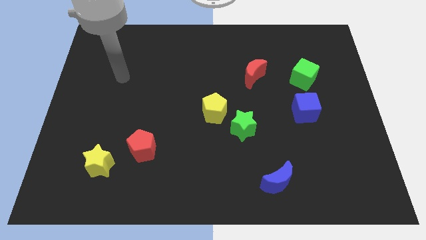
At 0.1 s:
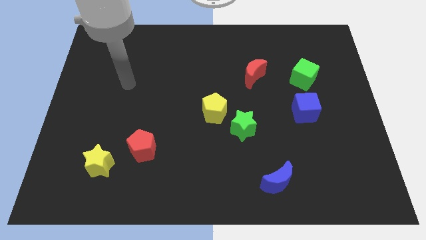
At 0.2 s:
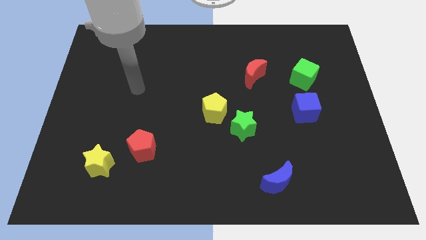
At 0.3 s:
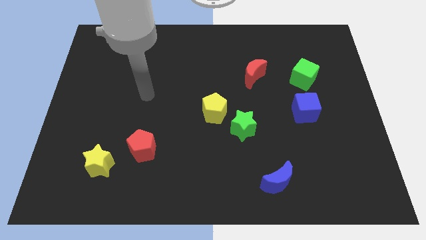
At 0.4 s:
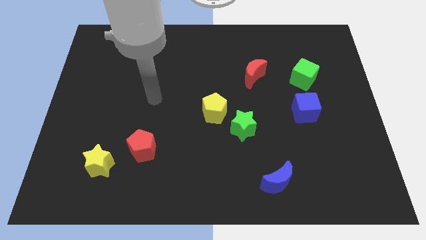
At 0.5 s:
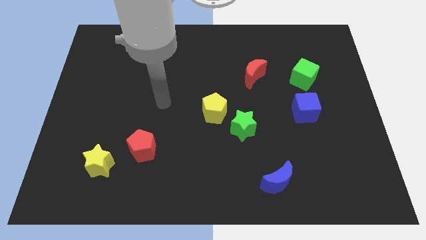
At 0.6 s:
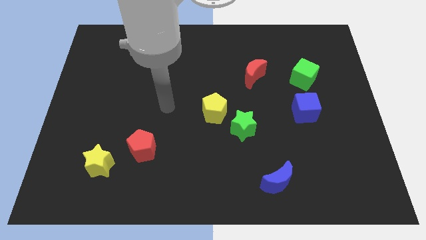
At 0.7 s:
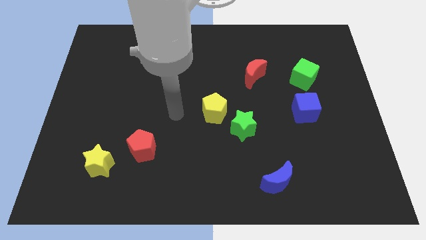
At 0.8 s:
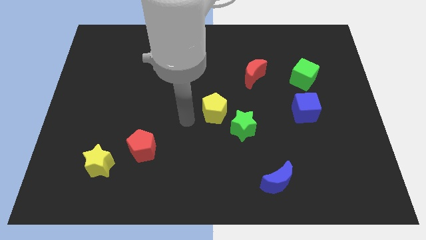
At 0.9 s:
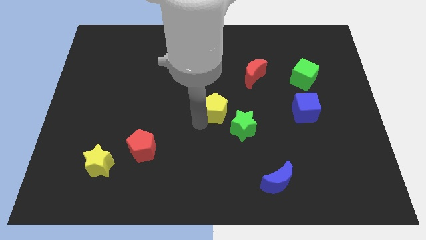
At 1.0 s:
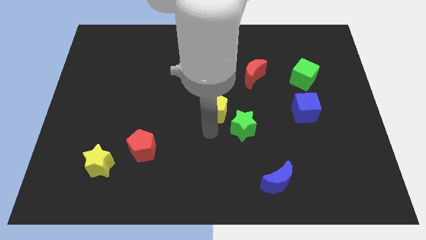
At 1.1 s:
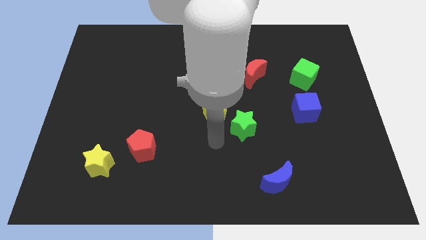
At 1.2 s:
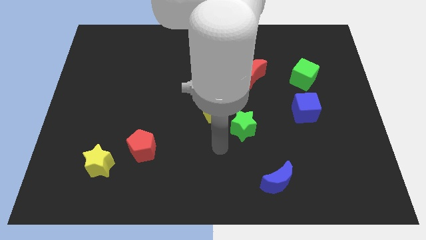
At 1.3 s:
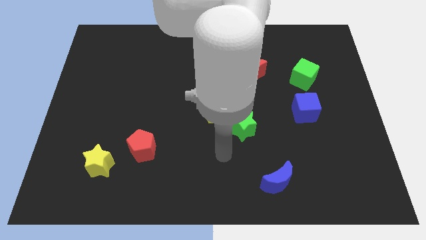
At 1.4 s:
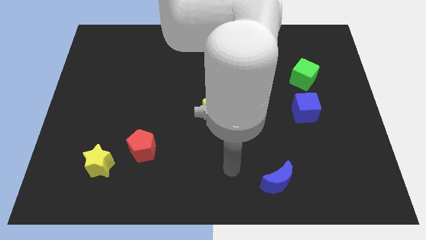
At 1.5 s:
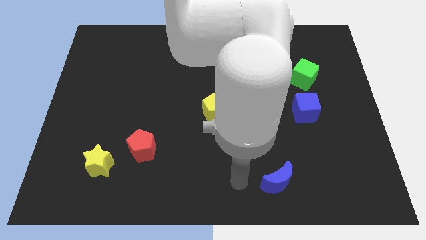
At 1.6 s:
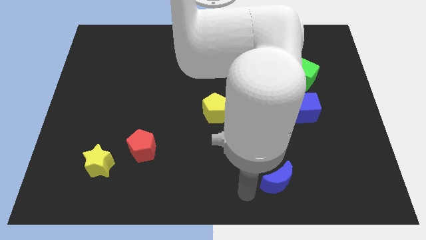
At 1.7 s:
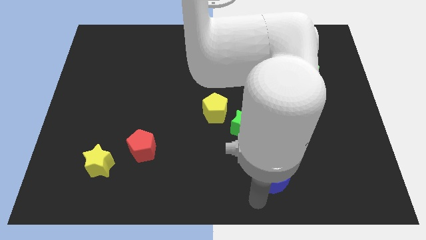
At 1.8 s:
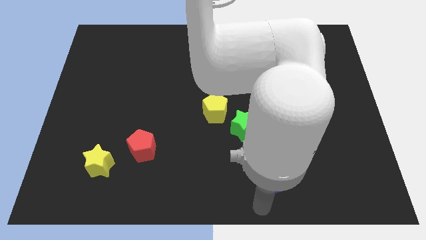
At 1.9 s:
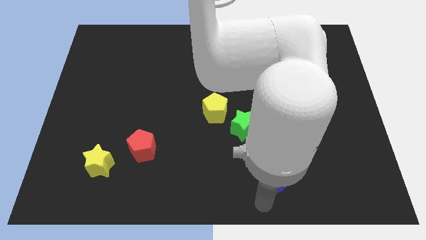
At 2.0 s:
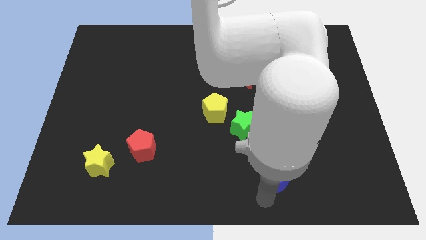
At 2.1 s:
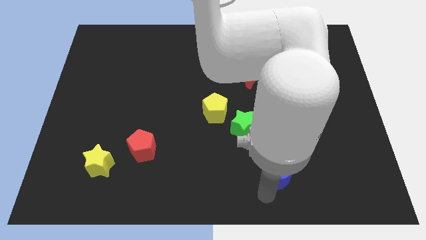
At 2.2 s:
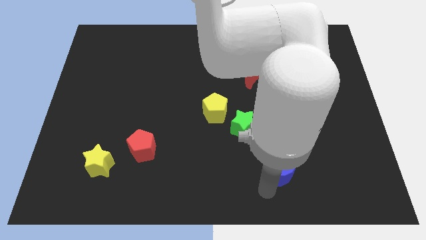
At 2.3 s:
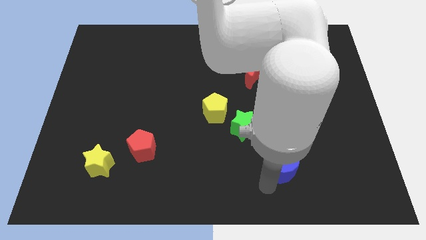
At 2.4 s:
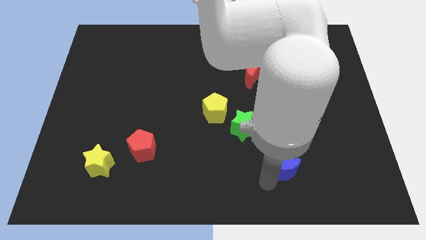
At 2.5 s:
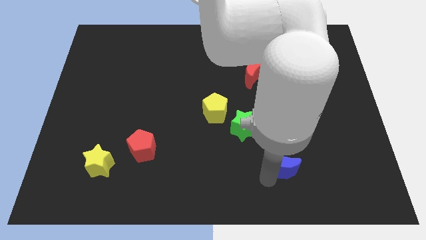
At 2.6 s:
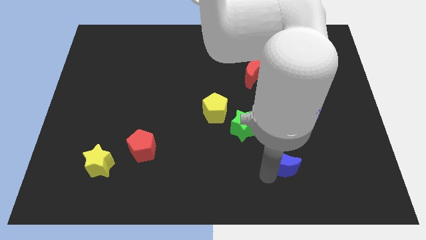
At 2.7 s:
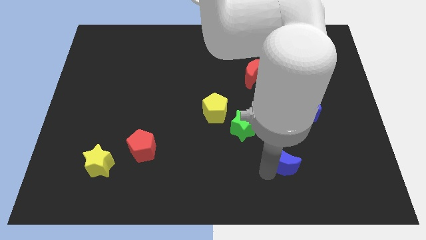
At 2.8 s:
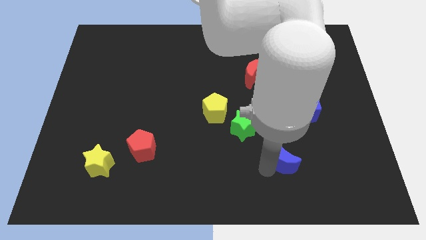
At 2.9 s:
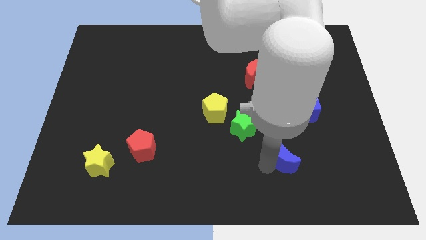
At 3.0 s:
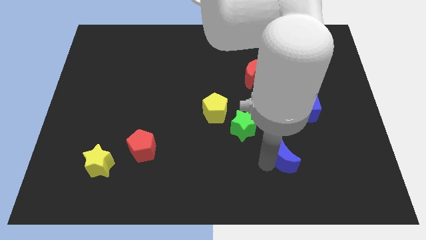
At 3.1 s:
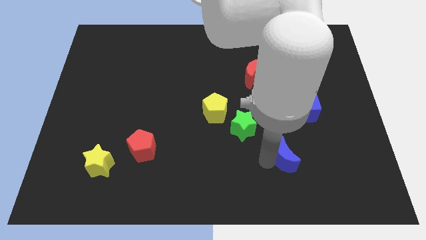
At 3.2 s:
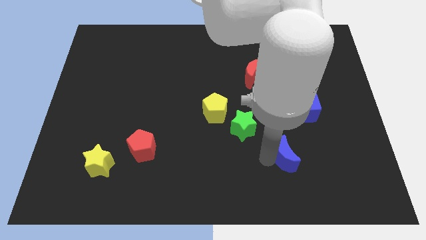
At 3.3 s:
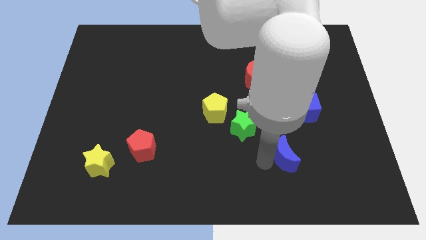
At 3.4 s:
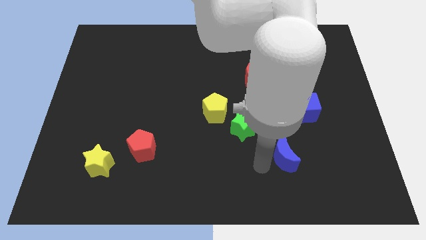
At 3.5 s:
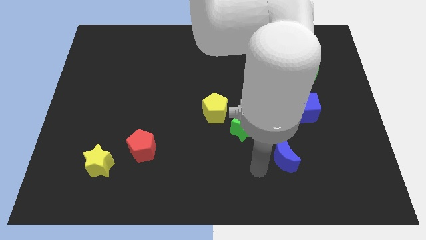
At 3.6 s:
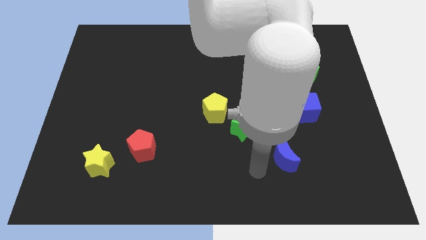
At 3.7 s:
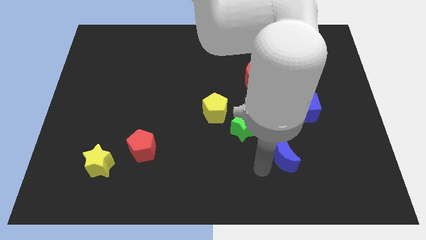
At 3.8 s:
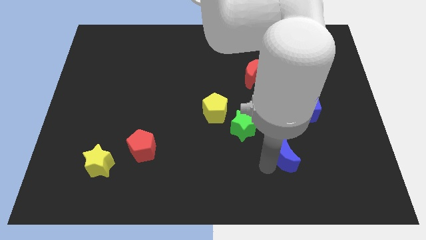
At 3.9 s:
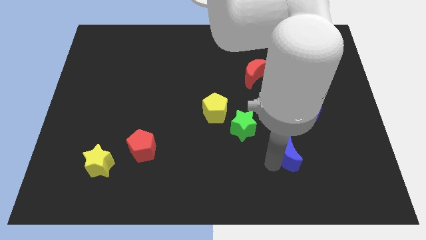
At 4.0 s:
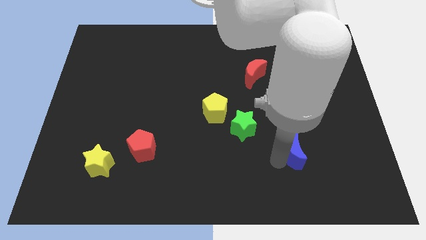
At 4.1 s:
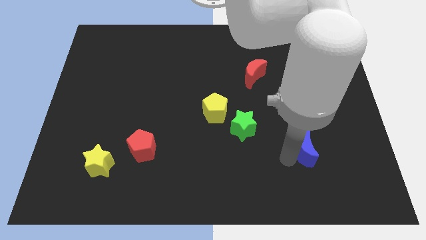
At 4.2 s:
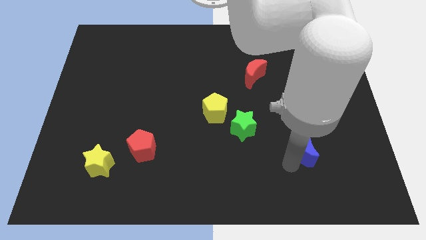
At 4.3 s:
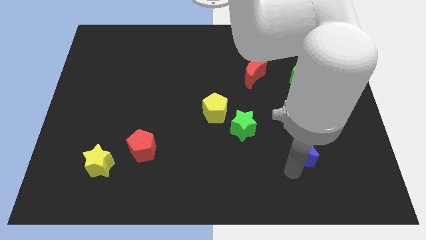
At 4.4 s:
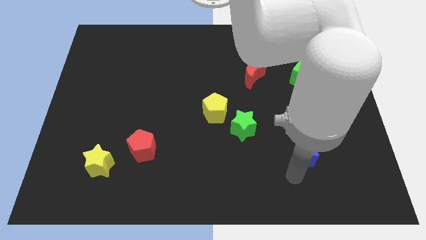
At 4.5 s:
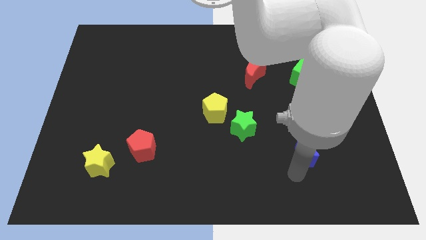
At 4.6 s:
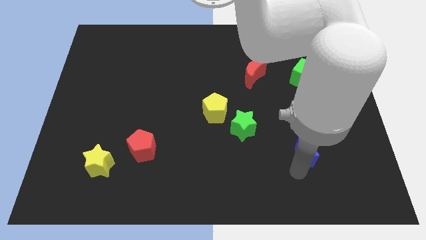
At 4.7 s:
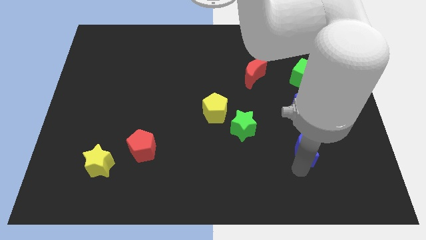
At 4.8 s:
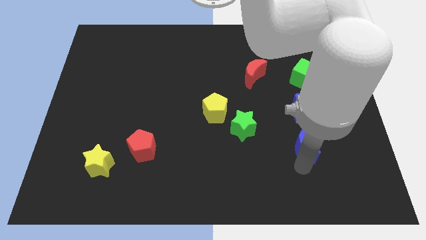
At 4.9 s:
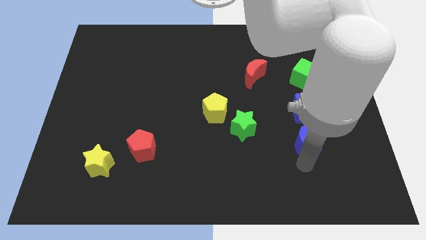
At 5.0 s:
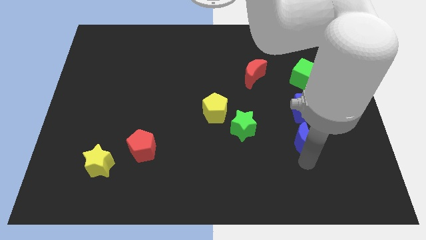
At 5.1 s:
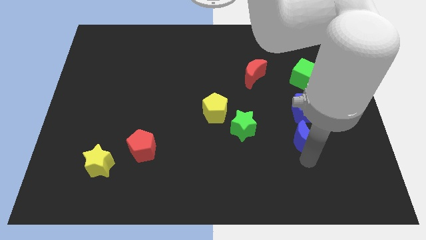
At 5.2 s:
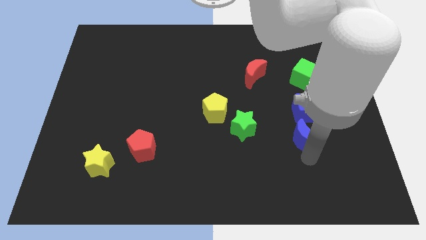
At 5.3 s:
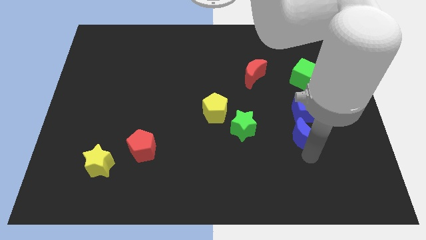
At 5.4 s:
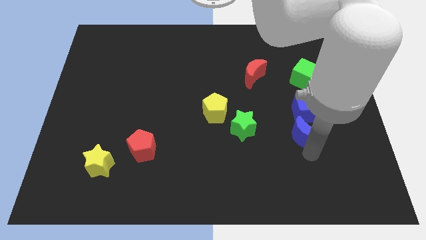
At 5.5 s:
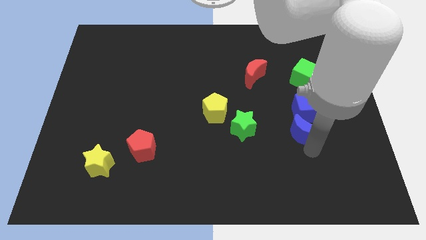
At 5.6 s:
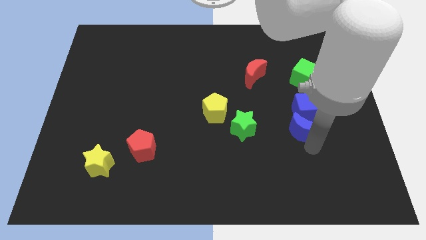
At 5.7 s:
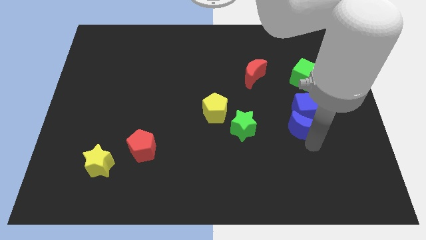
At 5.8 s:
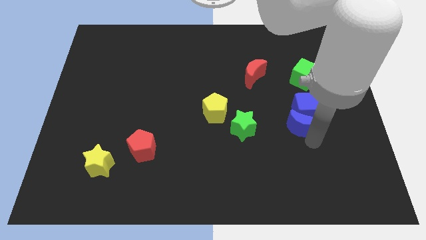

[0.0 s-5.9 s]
move the blue moon to the bottom of the green cube

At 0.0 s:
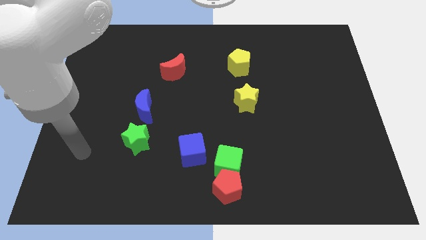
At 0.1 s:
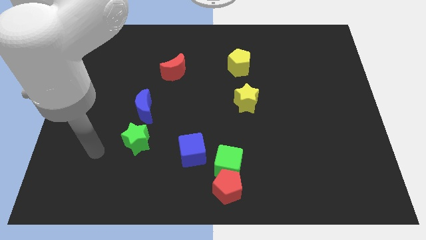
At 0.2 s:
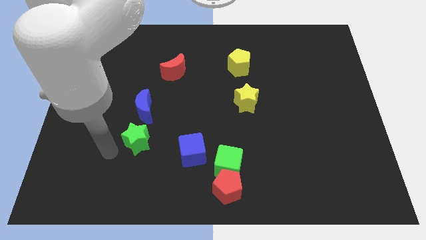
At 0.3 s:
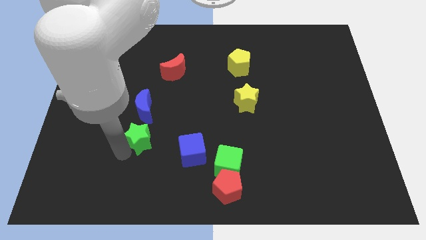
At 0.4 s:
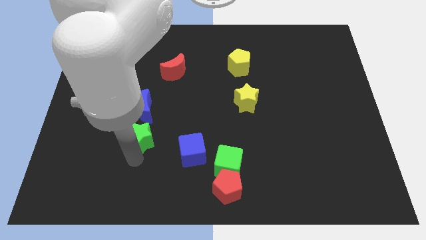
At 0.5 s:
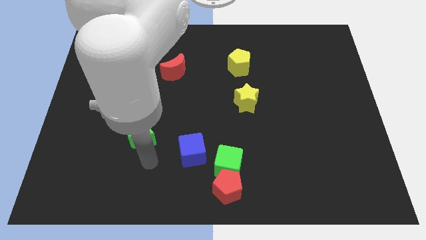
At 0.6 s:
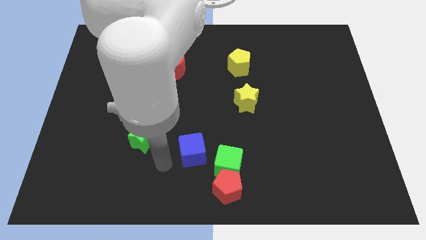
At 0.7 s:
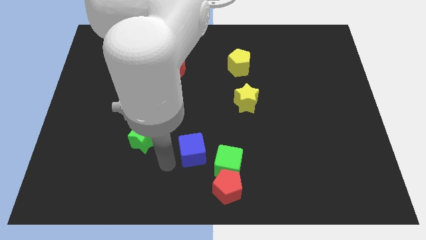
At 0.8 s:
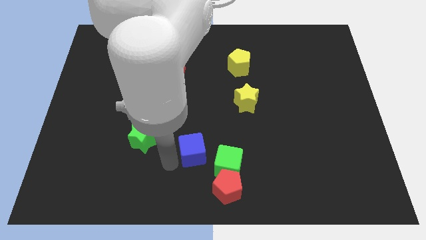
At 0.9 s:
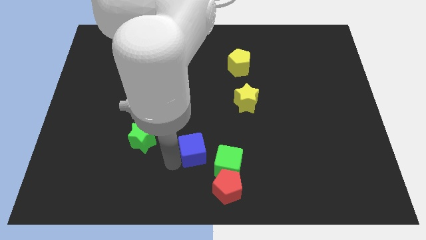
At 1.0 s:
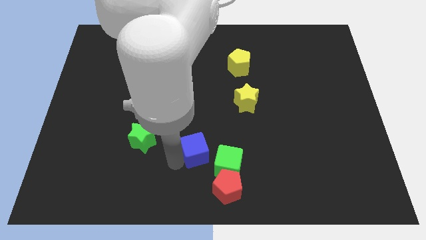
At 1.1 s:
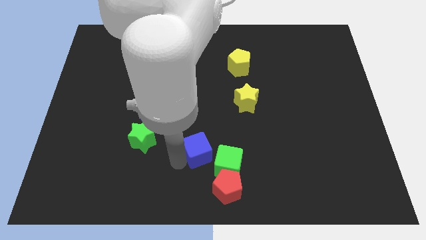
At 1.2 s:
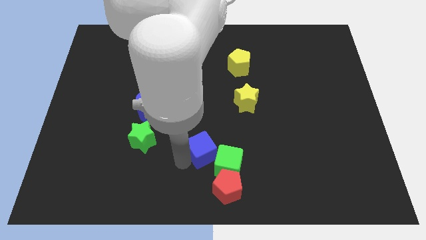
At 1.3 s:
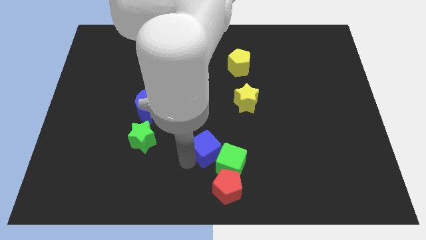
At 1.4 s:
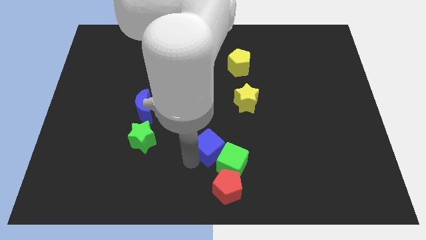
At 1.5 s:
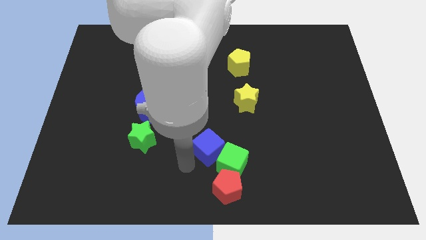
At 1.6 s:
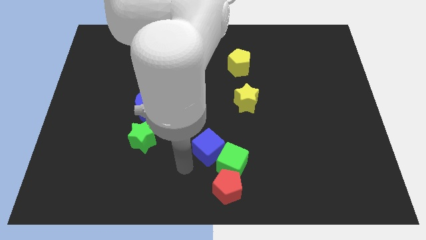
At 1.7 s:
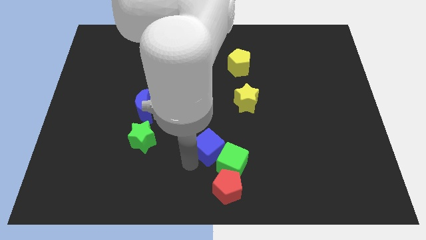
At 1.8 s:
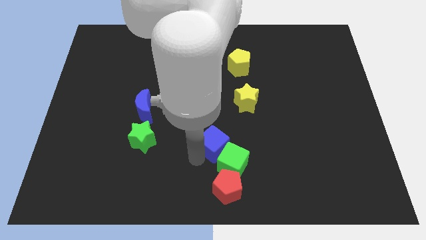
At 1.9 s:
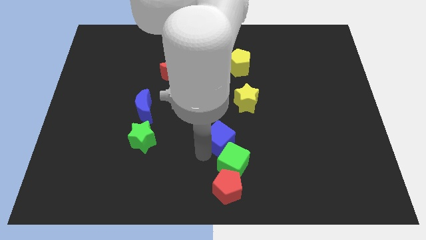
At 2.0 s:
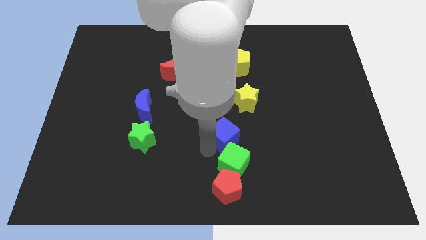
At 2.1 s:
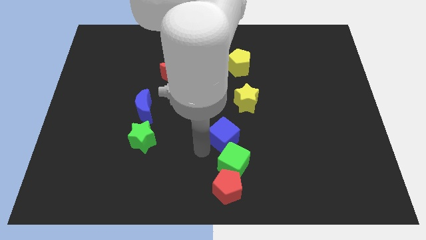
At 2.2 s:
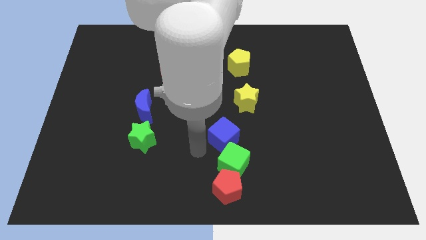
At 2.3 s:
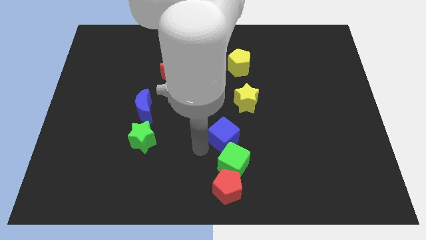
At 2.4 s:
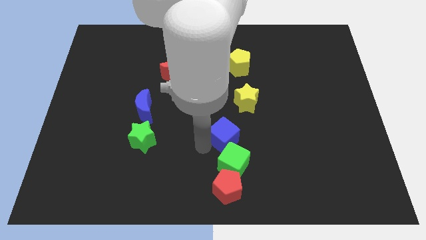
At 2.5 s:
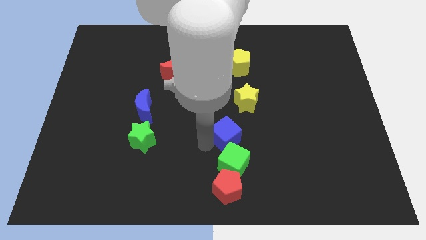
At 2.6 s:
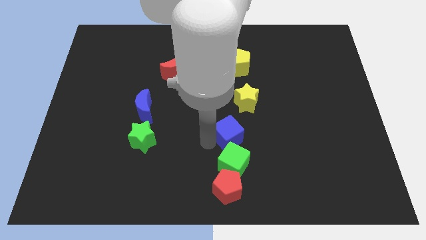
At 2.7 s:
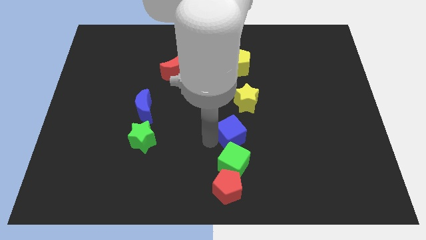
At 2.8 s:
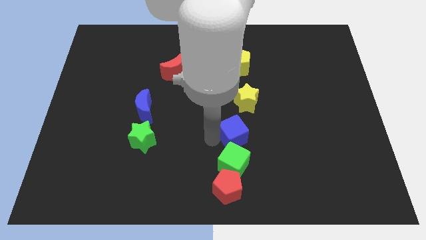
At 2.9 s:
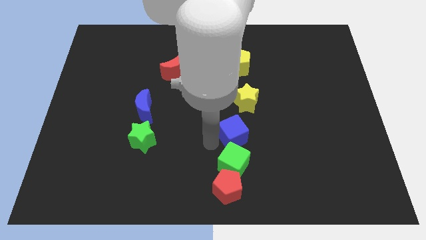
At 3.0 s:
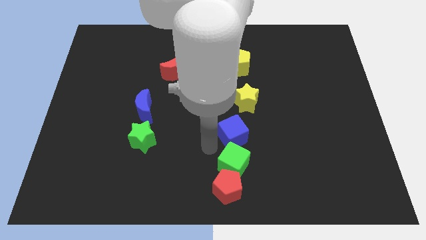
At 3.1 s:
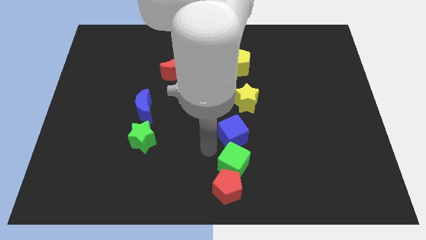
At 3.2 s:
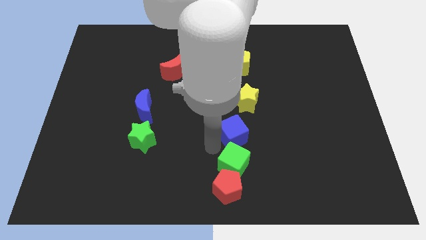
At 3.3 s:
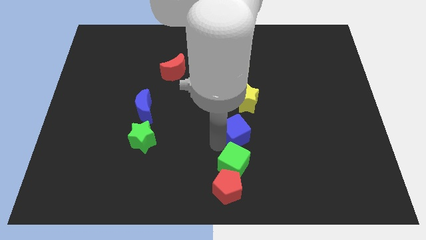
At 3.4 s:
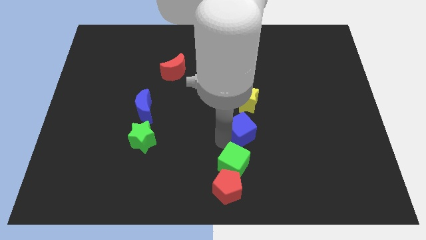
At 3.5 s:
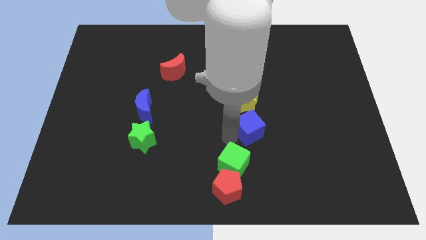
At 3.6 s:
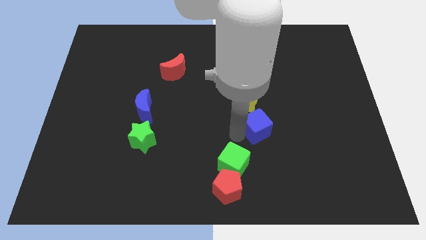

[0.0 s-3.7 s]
move the blue cube to the bottom right of the yellow star
